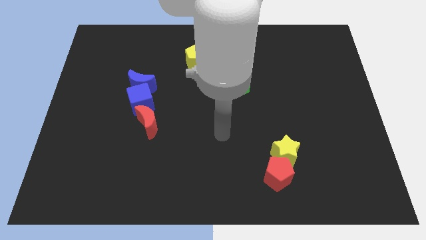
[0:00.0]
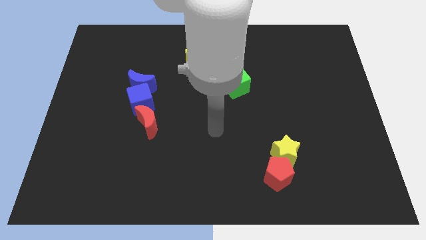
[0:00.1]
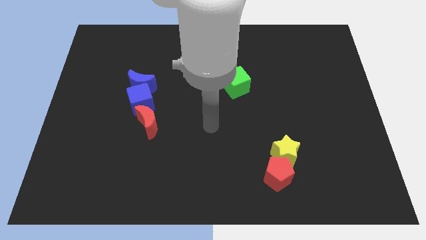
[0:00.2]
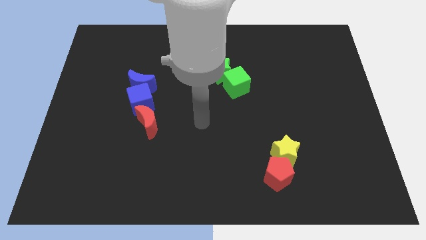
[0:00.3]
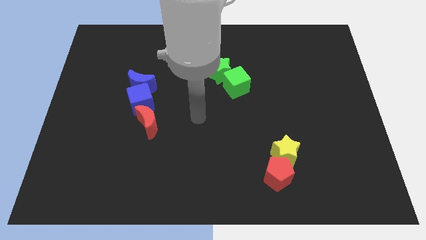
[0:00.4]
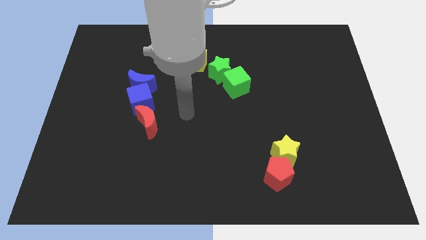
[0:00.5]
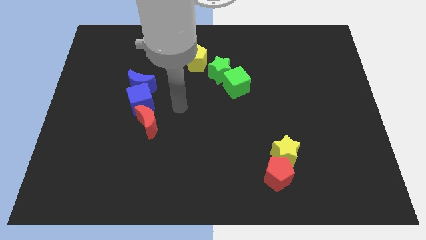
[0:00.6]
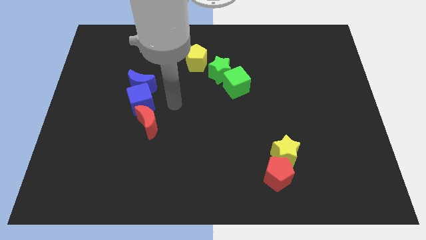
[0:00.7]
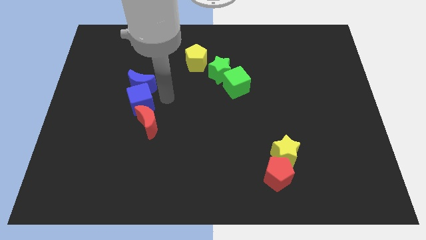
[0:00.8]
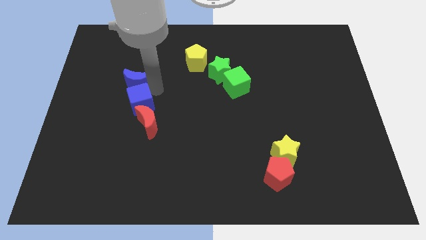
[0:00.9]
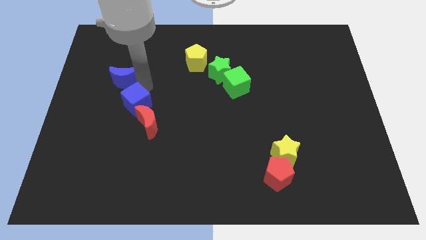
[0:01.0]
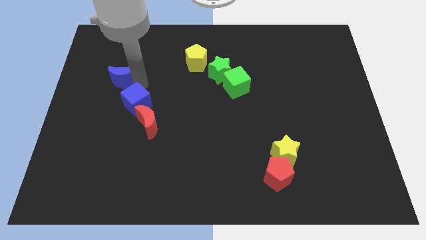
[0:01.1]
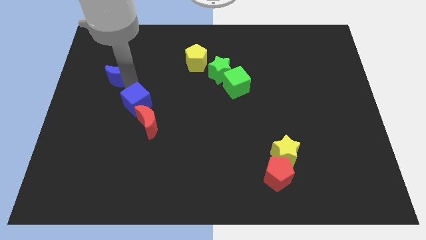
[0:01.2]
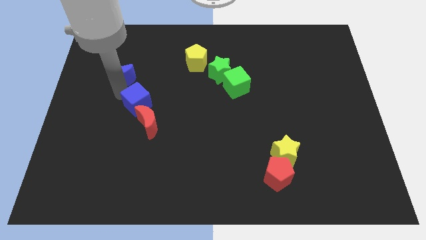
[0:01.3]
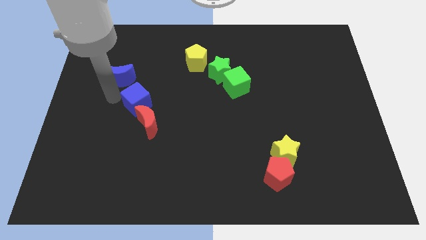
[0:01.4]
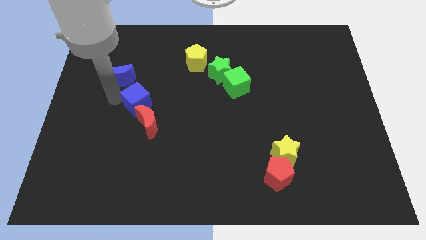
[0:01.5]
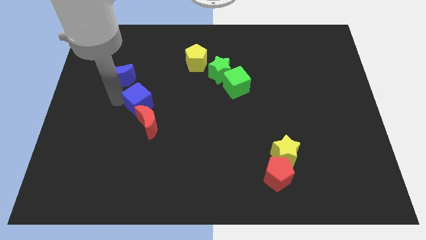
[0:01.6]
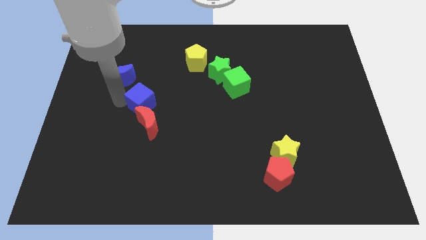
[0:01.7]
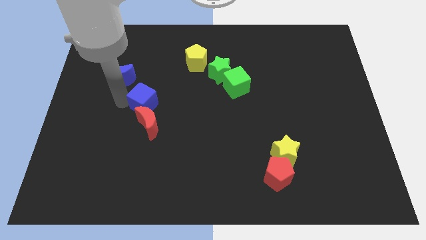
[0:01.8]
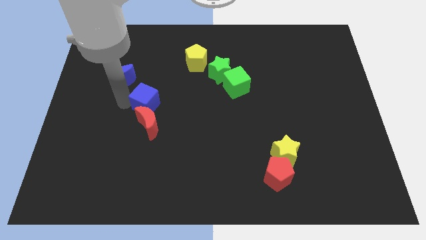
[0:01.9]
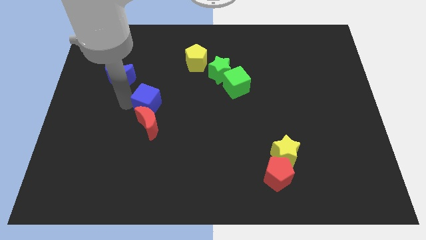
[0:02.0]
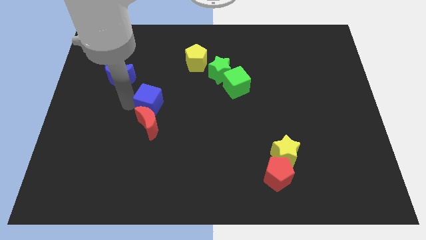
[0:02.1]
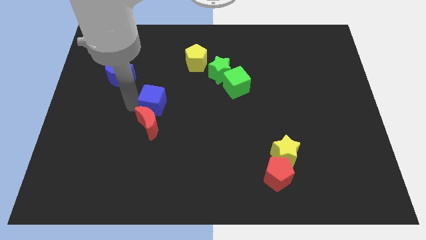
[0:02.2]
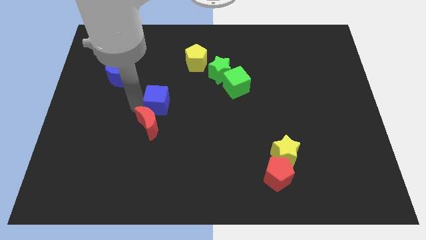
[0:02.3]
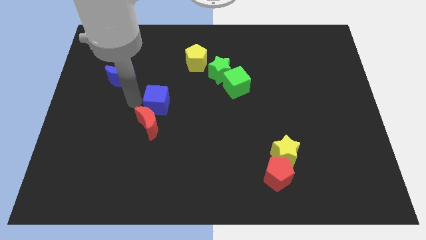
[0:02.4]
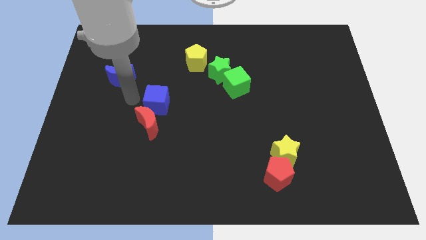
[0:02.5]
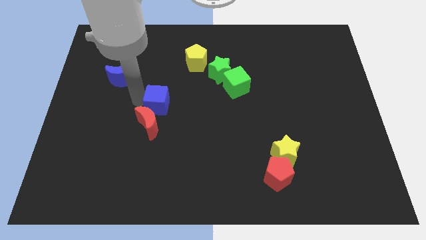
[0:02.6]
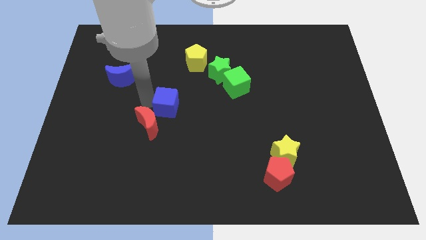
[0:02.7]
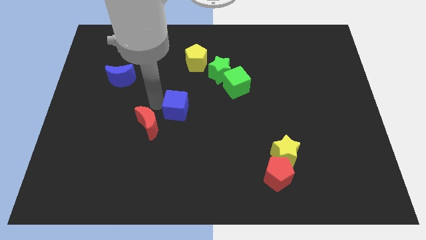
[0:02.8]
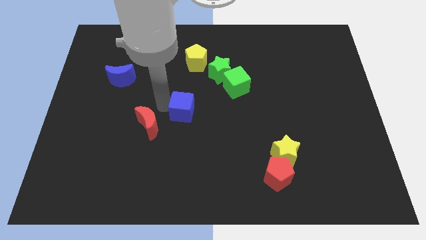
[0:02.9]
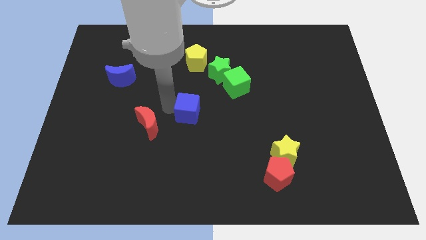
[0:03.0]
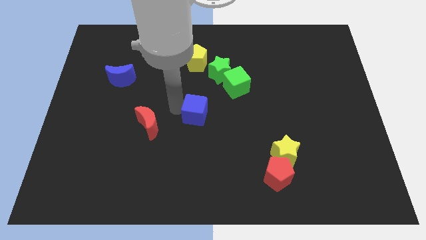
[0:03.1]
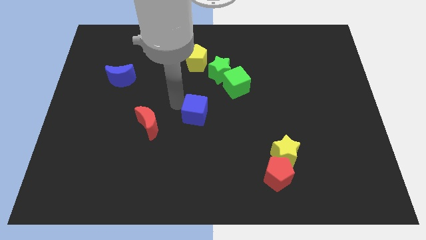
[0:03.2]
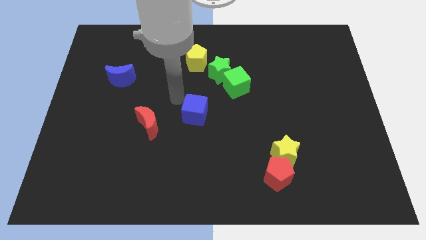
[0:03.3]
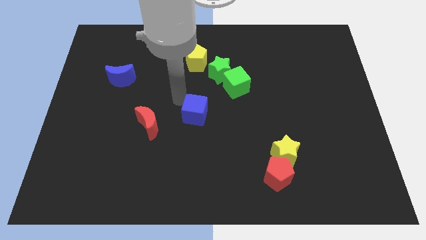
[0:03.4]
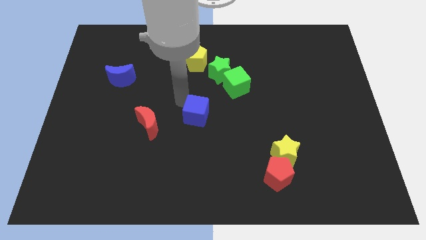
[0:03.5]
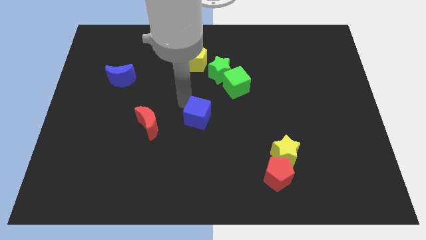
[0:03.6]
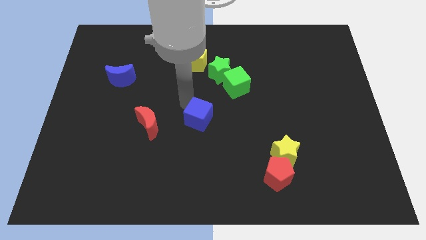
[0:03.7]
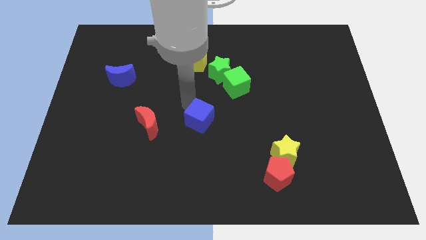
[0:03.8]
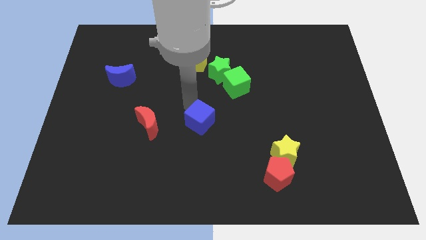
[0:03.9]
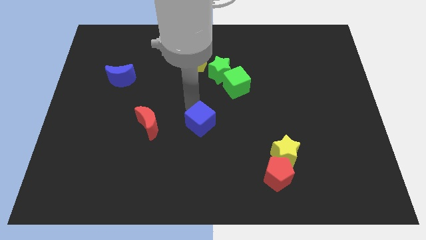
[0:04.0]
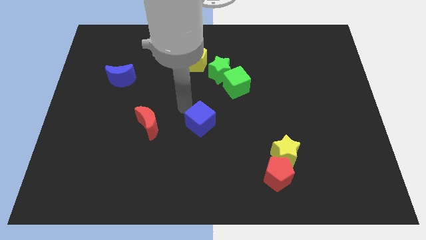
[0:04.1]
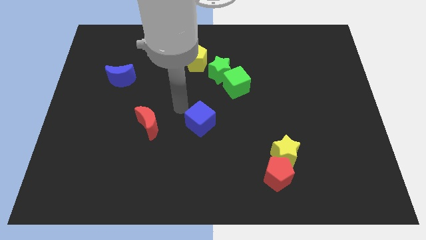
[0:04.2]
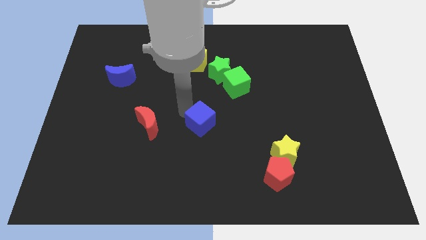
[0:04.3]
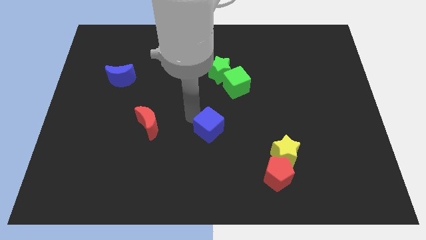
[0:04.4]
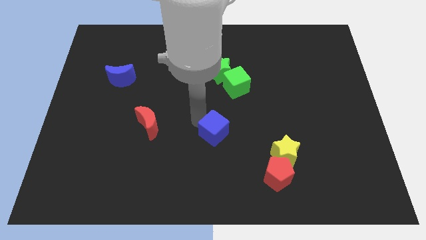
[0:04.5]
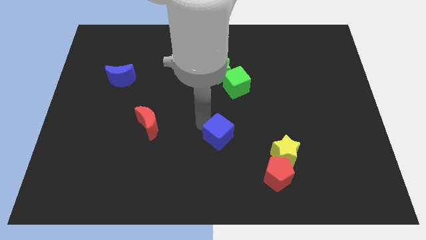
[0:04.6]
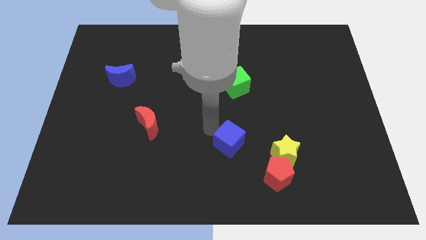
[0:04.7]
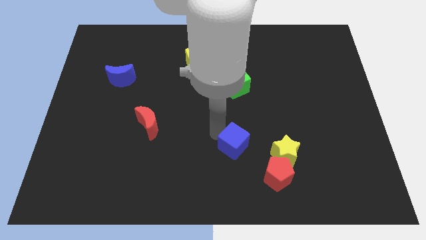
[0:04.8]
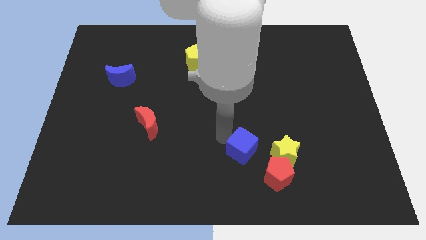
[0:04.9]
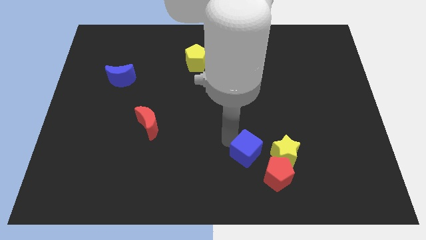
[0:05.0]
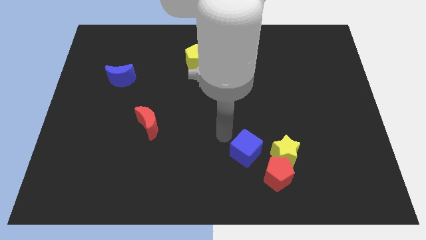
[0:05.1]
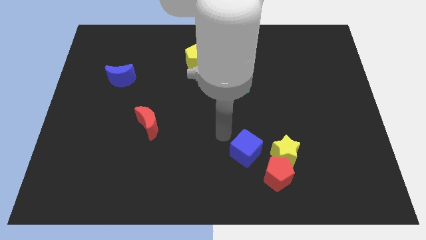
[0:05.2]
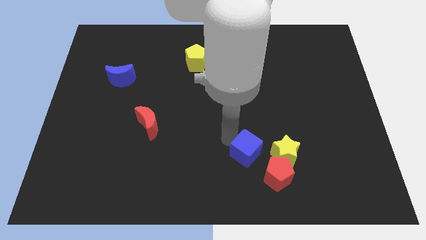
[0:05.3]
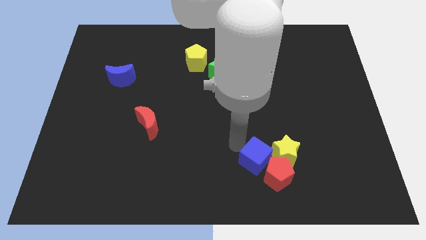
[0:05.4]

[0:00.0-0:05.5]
push the blue cube next to the red pentagon
